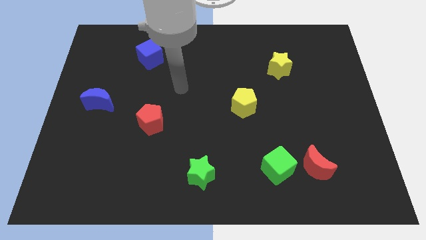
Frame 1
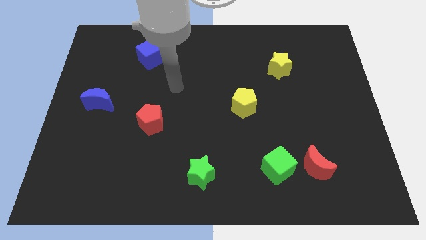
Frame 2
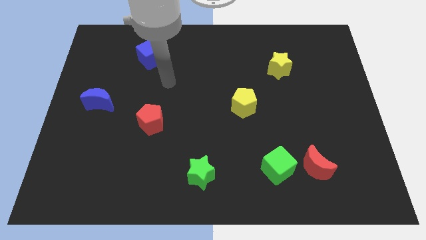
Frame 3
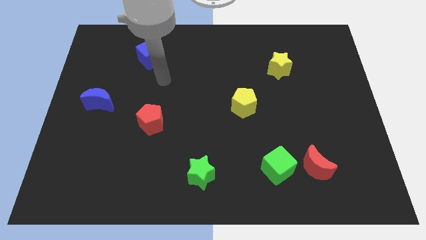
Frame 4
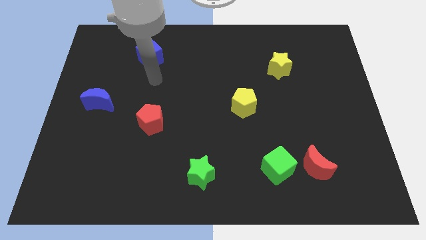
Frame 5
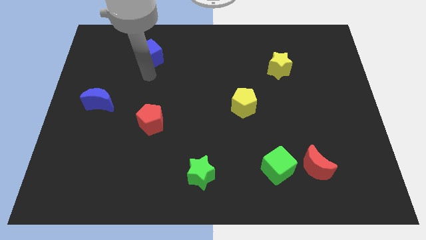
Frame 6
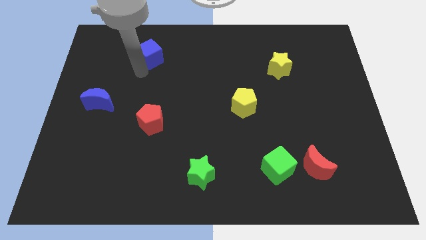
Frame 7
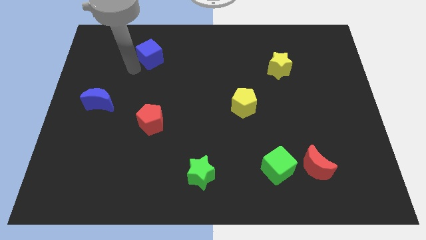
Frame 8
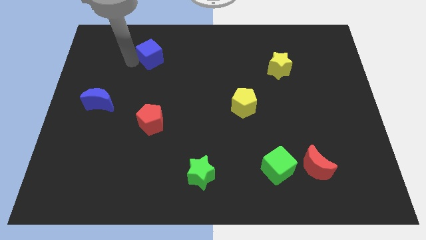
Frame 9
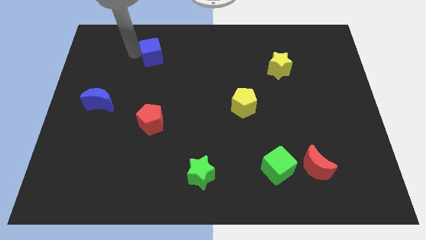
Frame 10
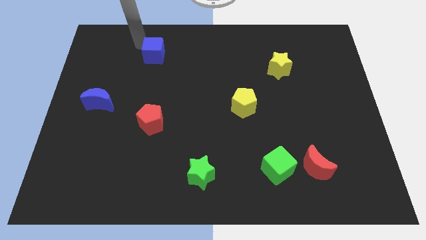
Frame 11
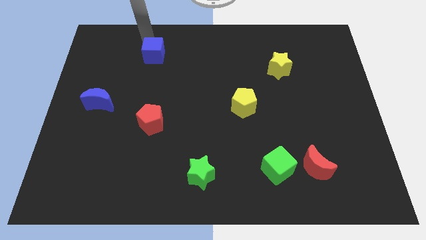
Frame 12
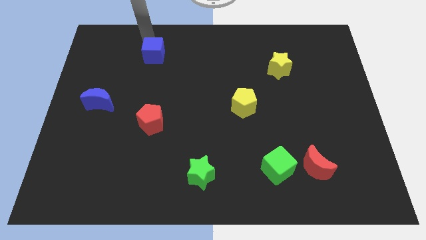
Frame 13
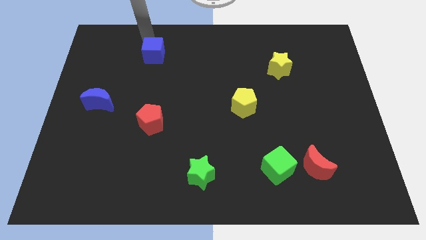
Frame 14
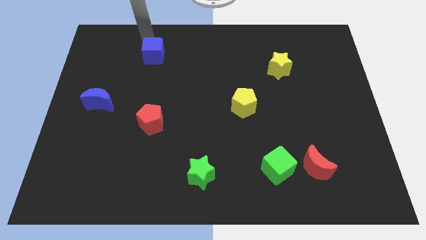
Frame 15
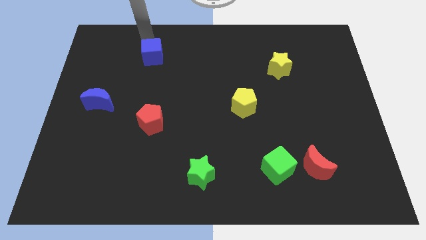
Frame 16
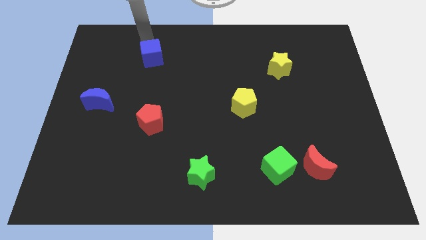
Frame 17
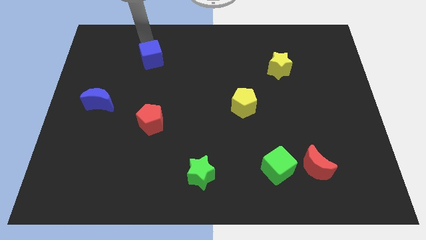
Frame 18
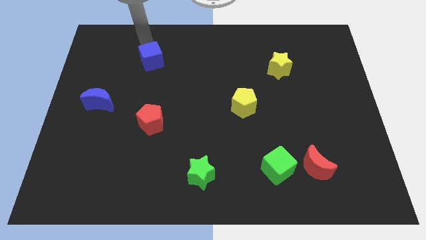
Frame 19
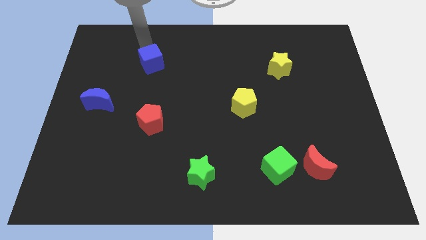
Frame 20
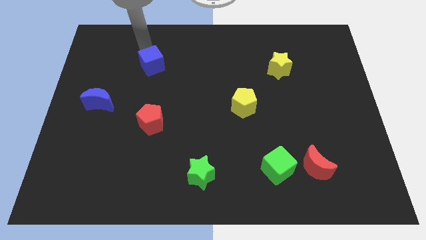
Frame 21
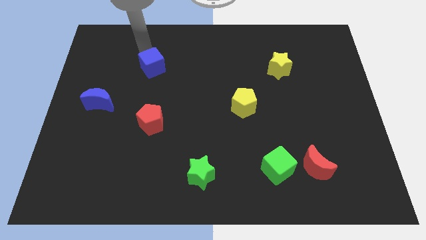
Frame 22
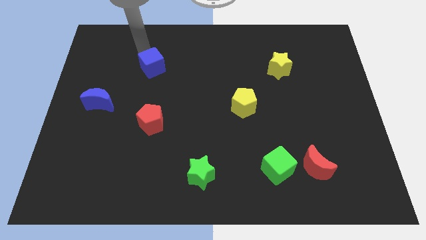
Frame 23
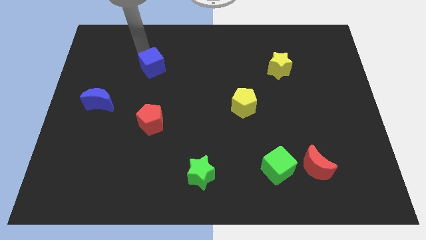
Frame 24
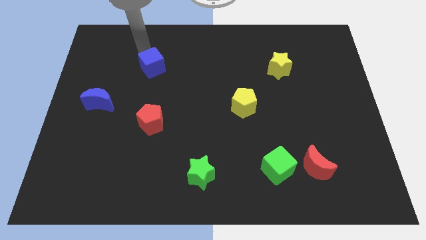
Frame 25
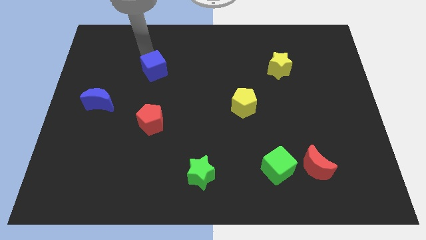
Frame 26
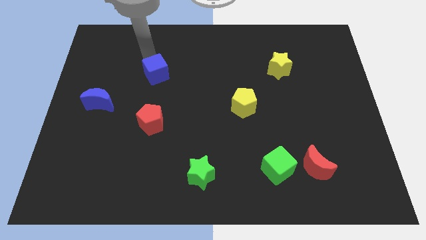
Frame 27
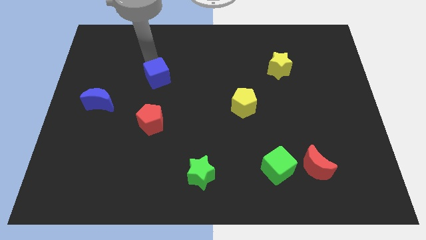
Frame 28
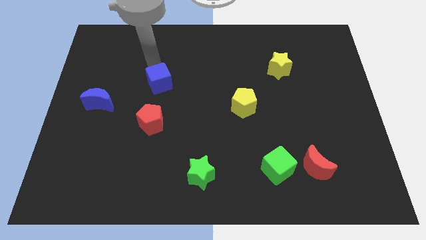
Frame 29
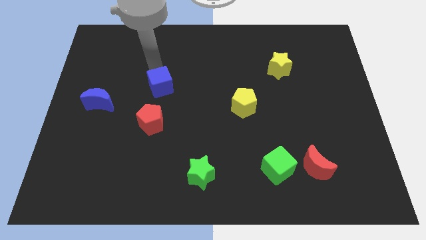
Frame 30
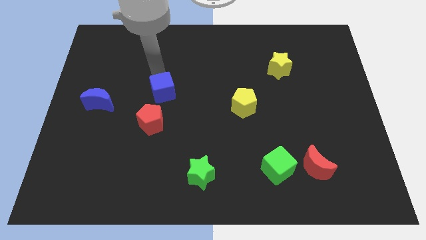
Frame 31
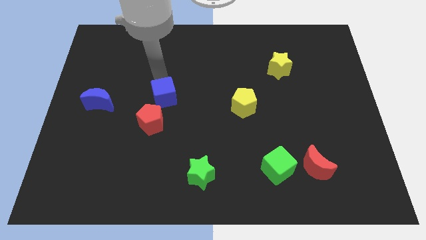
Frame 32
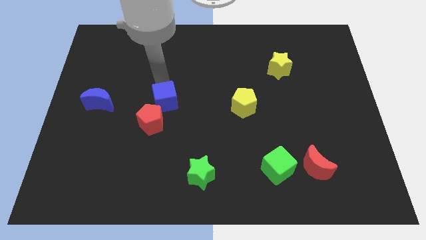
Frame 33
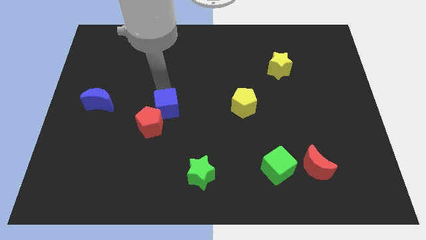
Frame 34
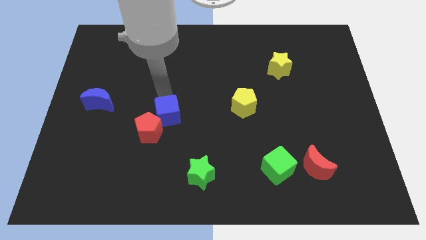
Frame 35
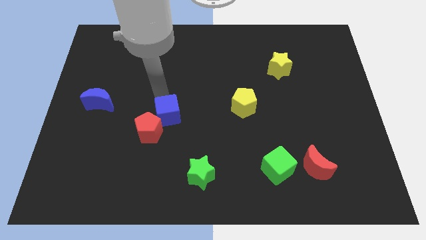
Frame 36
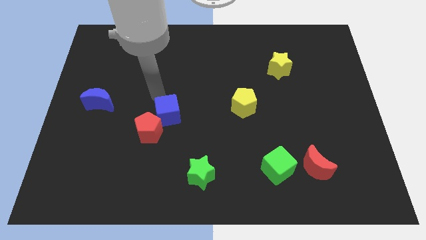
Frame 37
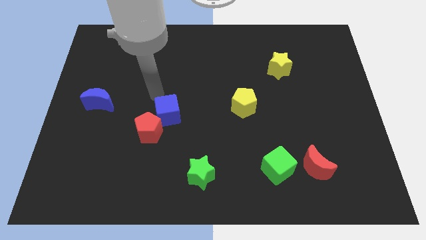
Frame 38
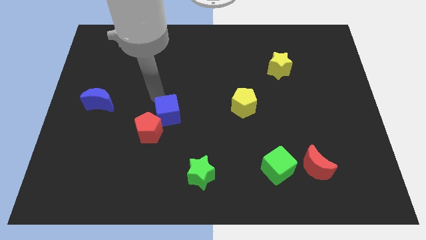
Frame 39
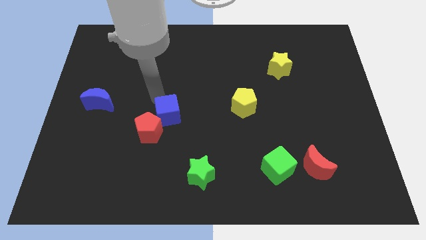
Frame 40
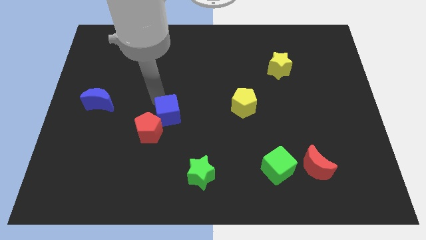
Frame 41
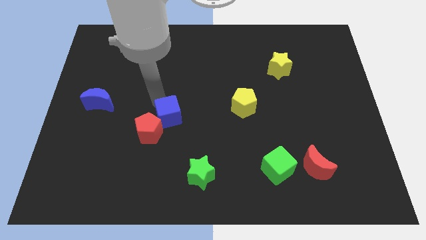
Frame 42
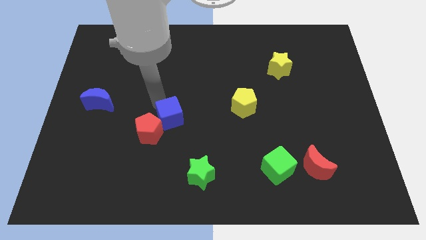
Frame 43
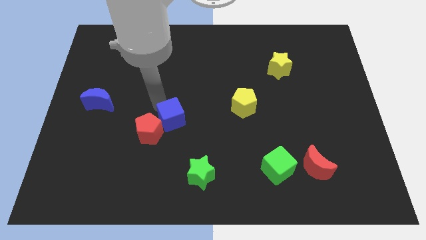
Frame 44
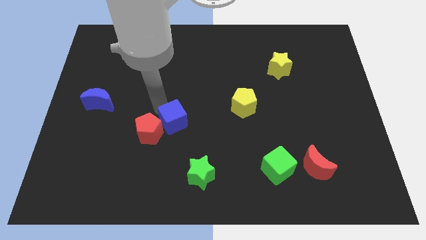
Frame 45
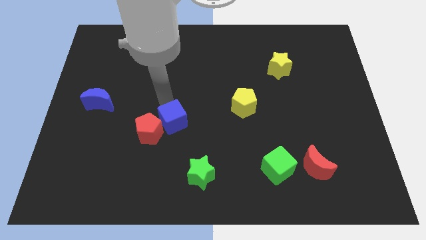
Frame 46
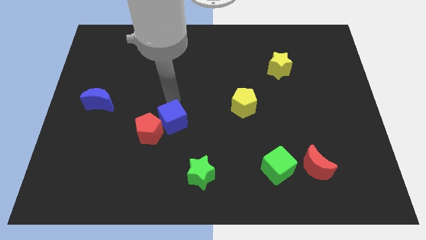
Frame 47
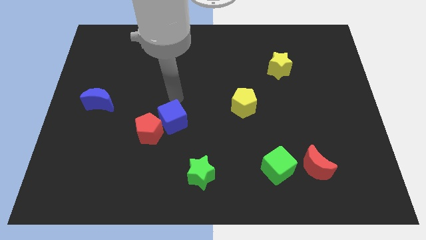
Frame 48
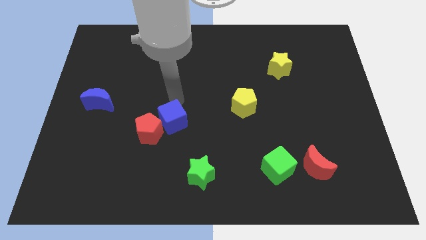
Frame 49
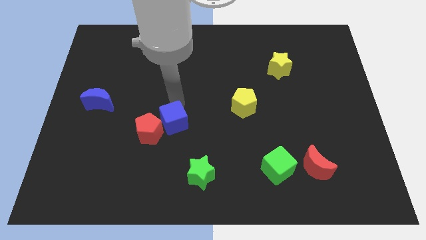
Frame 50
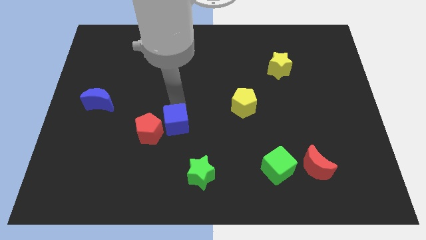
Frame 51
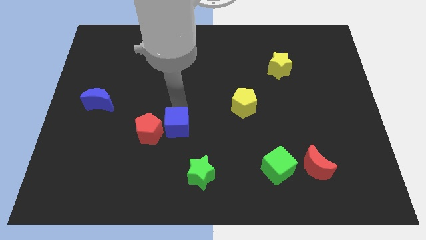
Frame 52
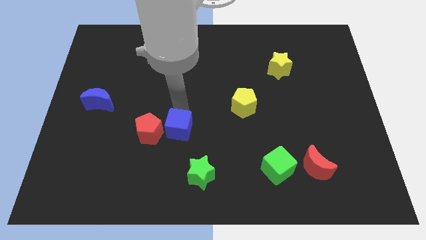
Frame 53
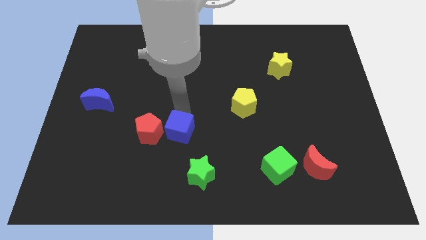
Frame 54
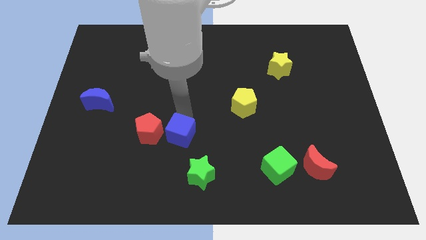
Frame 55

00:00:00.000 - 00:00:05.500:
move the blue cube diagonally down and to the right of the red pentagon

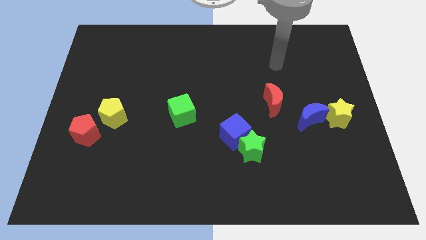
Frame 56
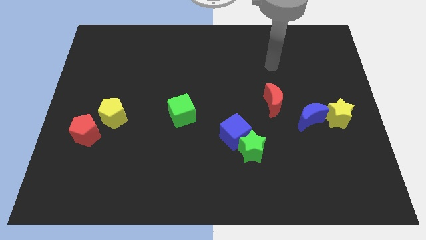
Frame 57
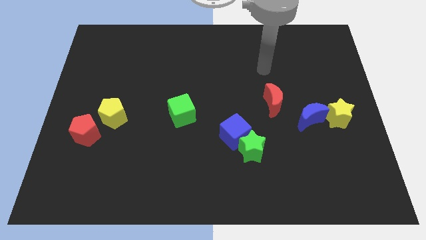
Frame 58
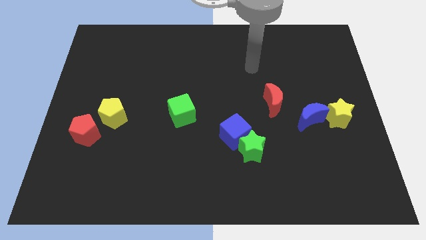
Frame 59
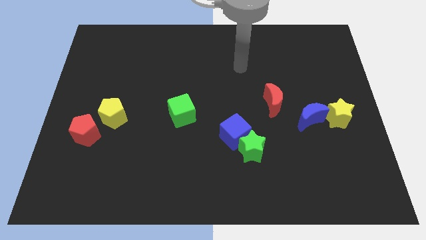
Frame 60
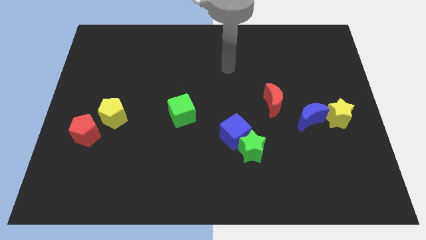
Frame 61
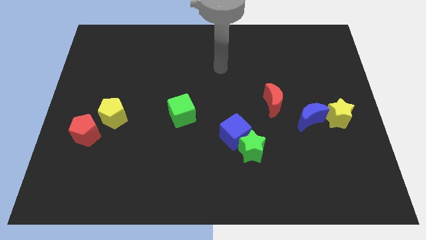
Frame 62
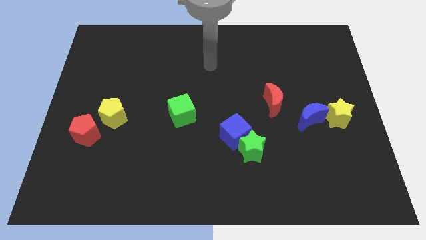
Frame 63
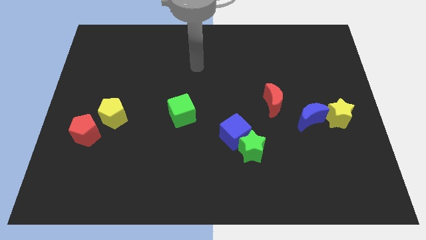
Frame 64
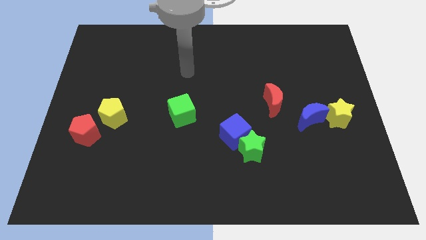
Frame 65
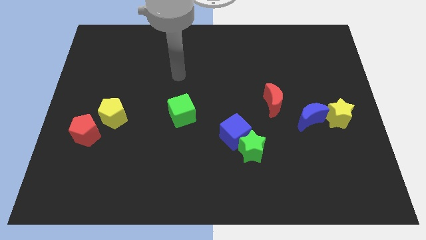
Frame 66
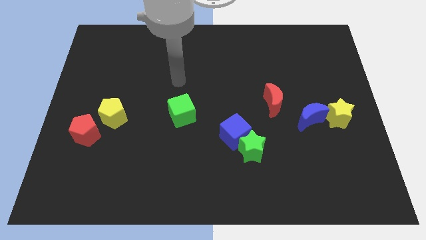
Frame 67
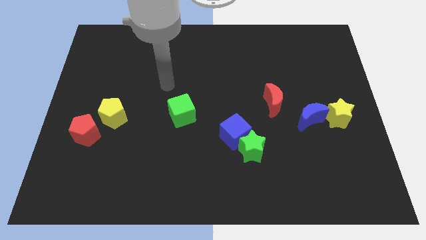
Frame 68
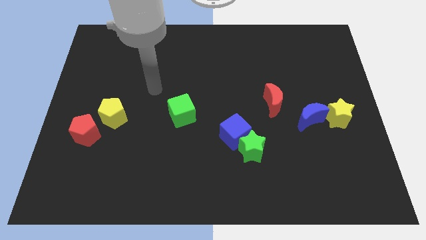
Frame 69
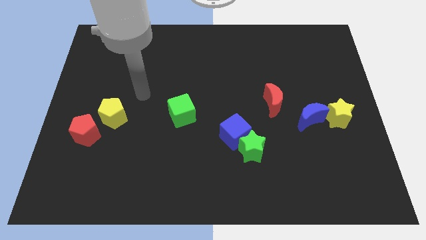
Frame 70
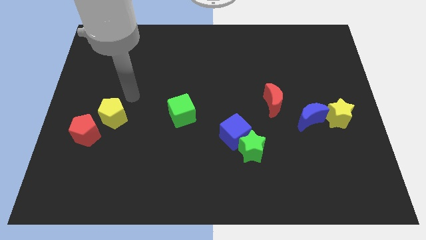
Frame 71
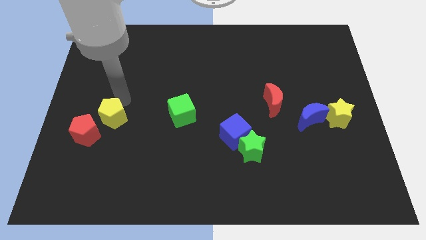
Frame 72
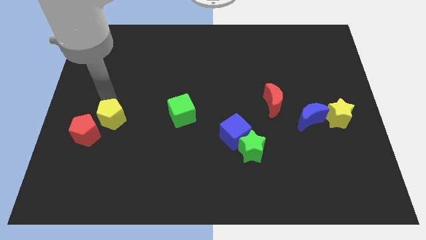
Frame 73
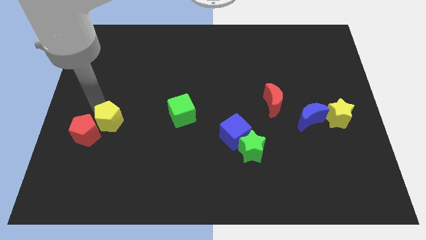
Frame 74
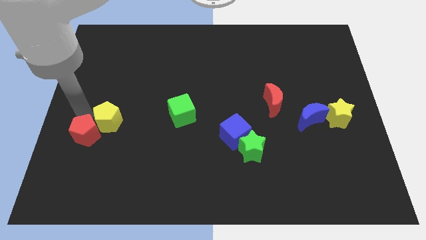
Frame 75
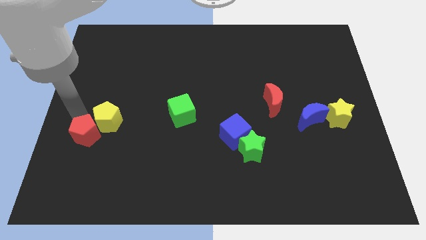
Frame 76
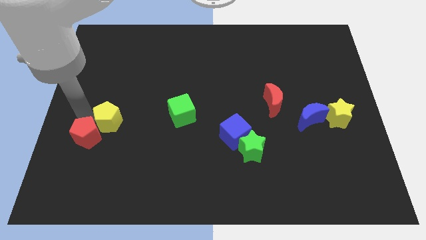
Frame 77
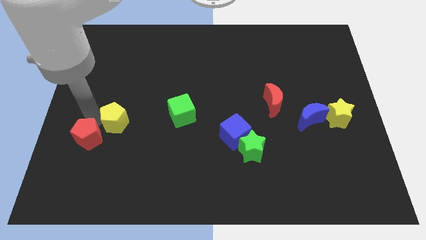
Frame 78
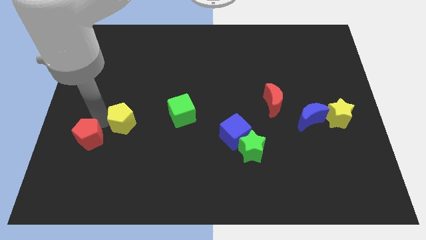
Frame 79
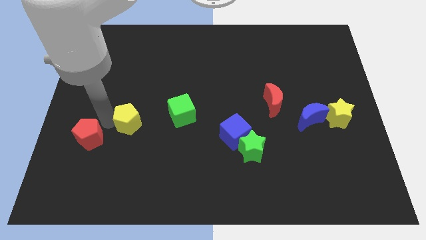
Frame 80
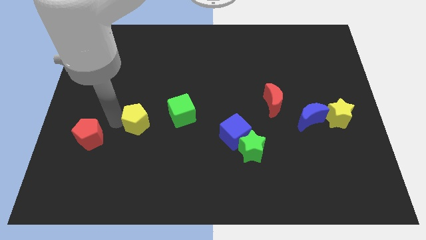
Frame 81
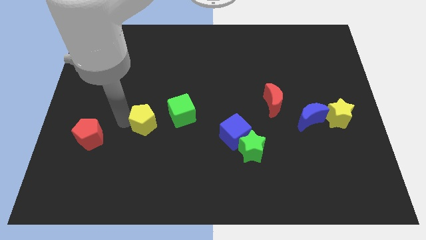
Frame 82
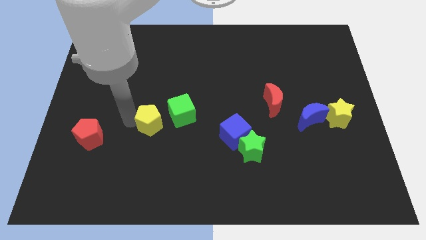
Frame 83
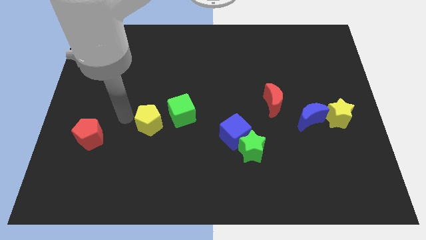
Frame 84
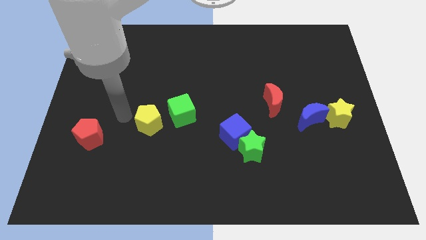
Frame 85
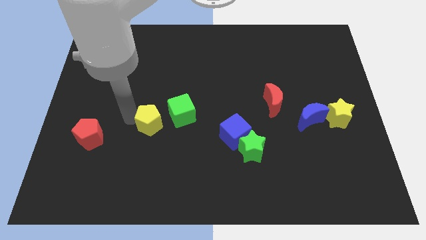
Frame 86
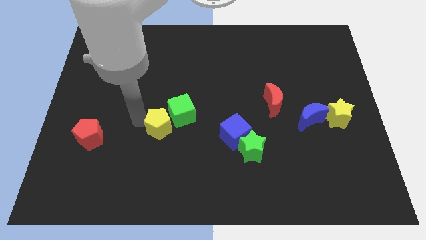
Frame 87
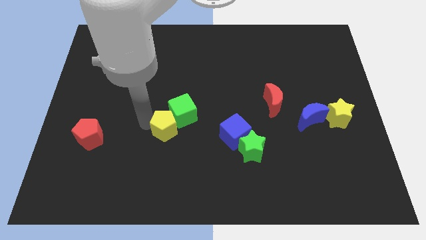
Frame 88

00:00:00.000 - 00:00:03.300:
move the yellow pentagon just left of the blue cube
